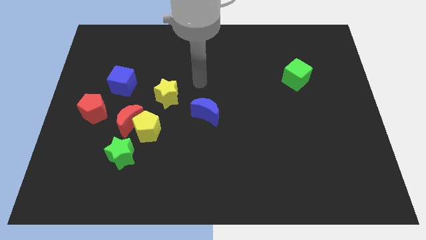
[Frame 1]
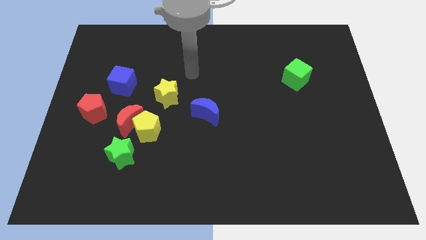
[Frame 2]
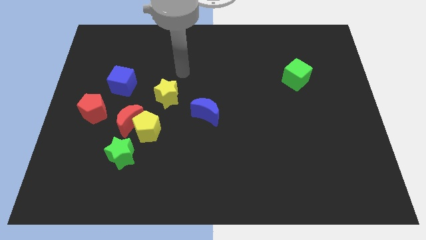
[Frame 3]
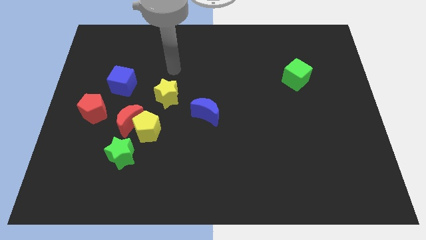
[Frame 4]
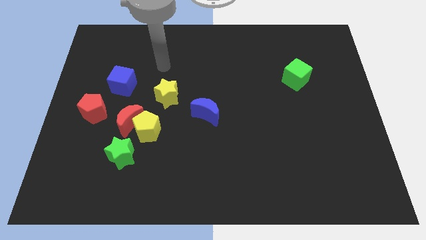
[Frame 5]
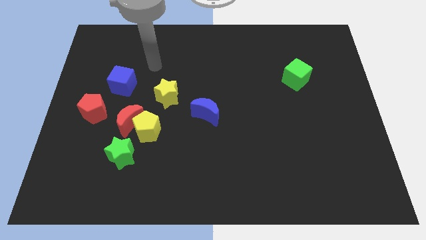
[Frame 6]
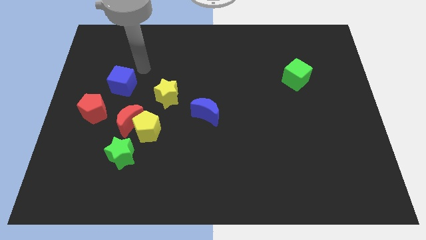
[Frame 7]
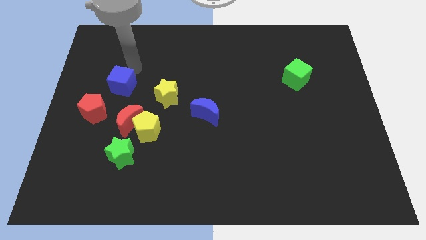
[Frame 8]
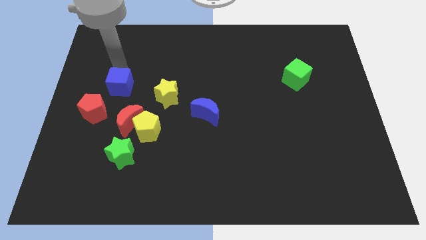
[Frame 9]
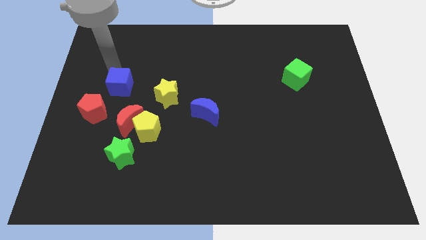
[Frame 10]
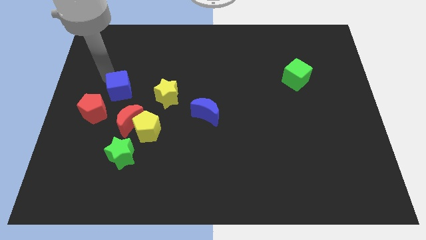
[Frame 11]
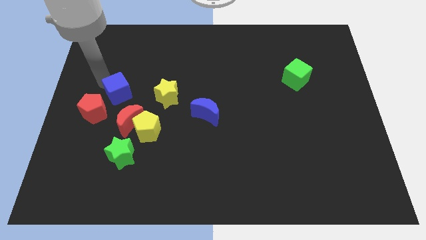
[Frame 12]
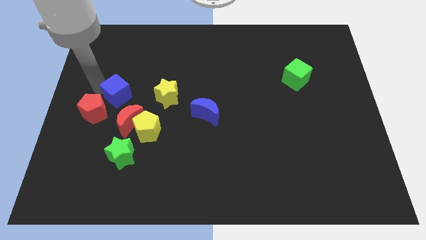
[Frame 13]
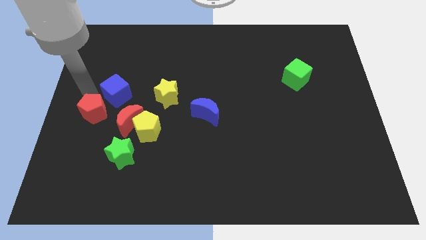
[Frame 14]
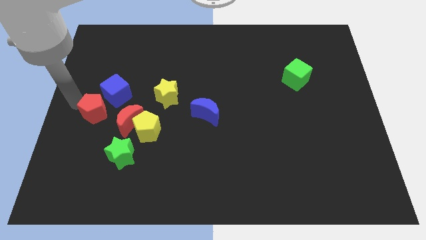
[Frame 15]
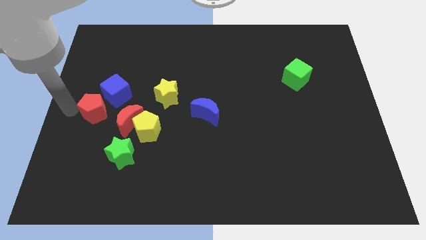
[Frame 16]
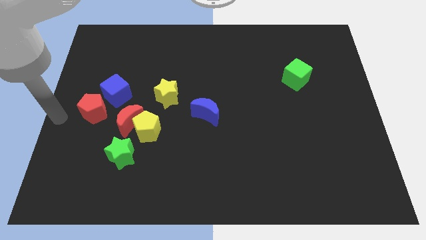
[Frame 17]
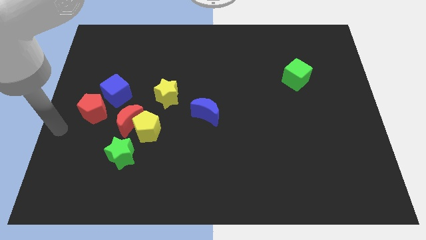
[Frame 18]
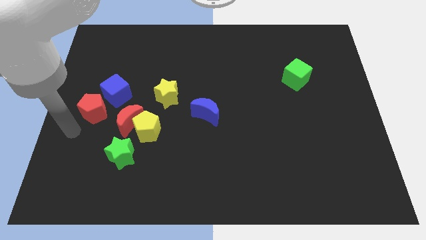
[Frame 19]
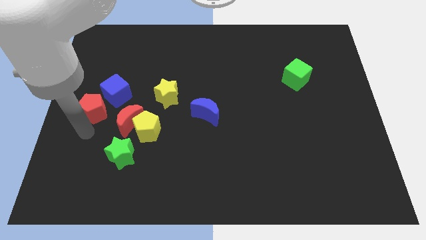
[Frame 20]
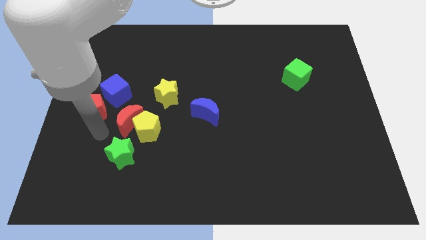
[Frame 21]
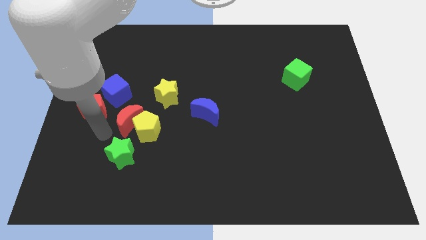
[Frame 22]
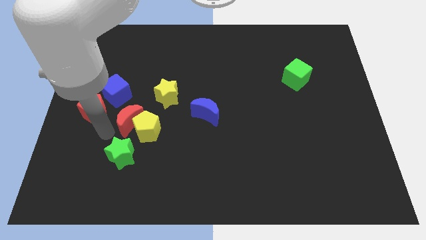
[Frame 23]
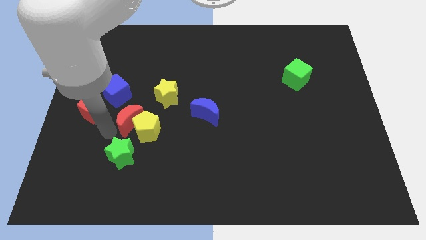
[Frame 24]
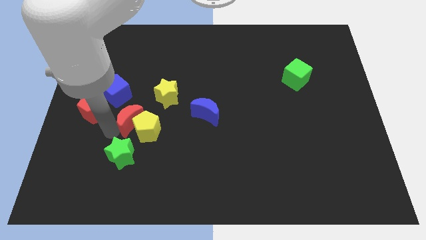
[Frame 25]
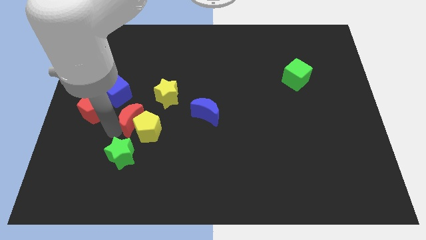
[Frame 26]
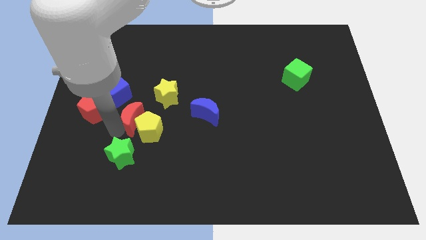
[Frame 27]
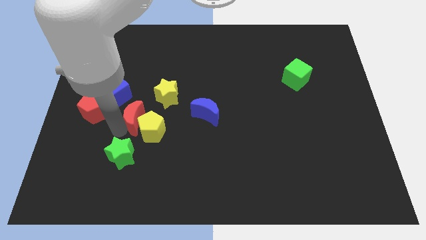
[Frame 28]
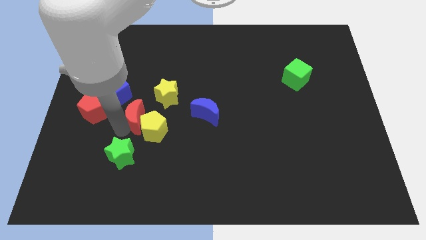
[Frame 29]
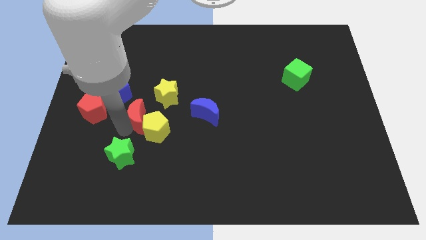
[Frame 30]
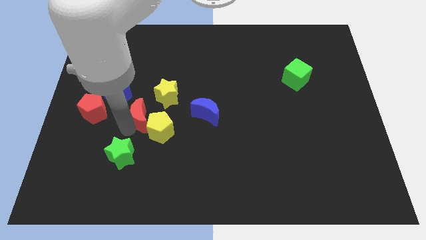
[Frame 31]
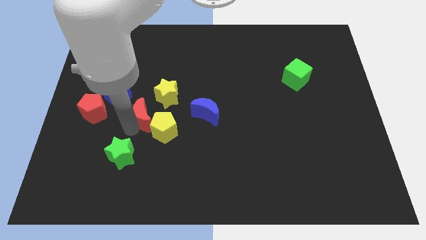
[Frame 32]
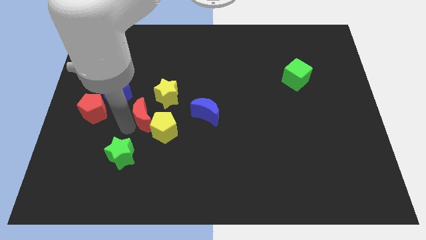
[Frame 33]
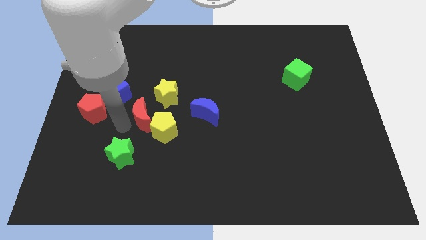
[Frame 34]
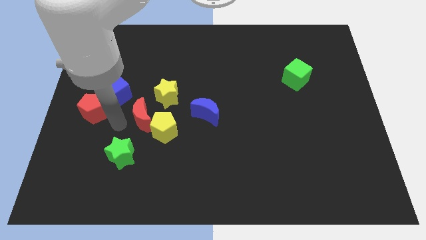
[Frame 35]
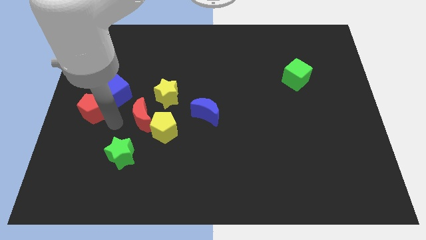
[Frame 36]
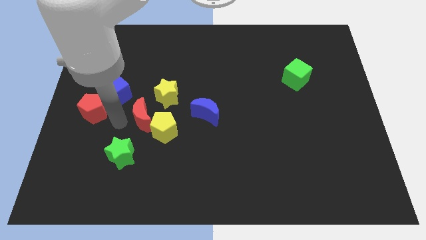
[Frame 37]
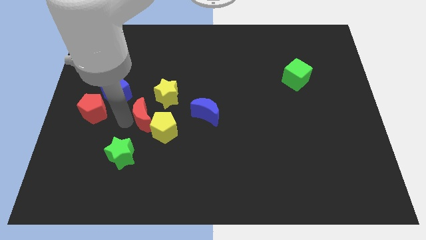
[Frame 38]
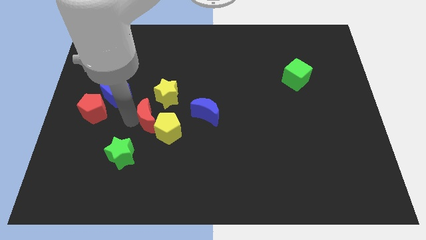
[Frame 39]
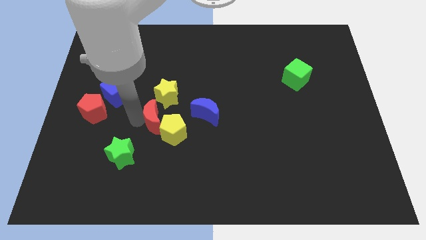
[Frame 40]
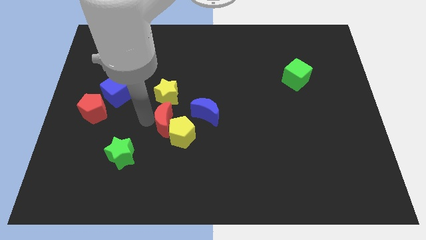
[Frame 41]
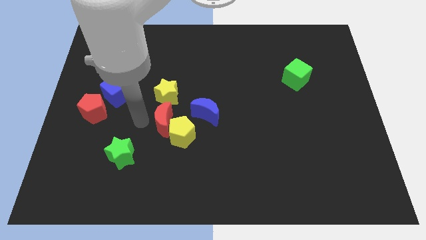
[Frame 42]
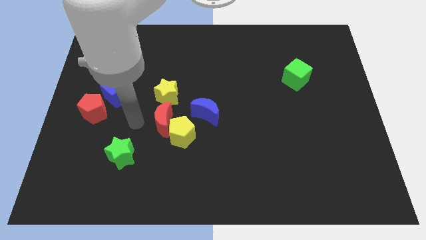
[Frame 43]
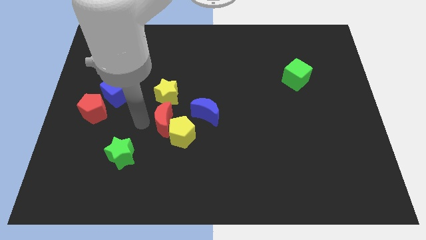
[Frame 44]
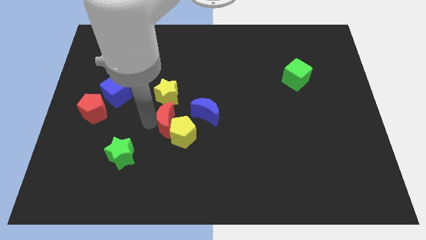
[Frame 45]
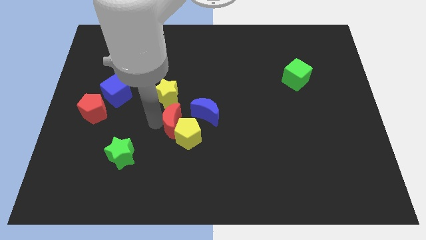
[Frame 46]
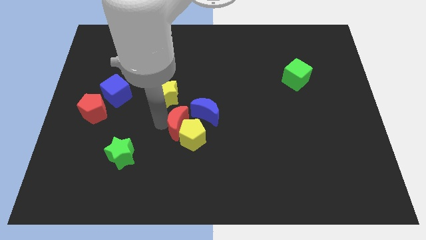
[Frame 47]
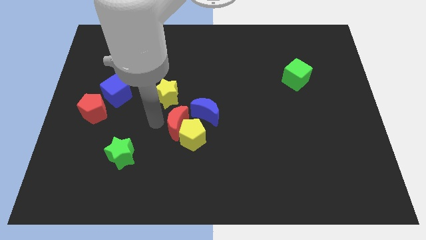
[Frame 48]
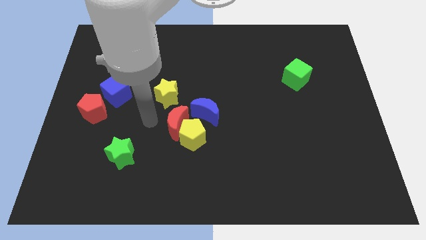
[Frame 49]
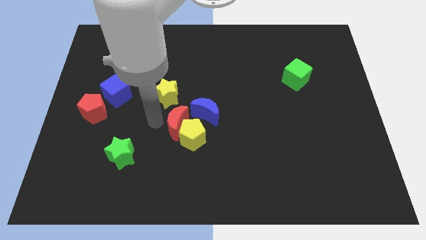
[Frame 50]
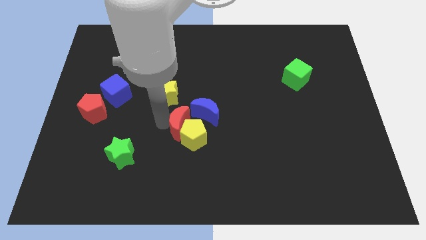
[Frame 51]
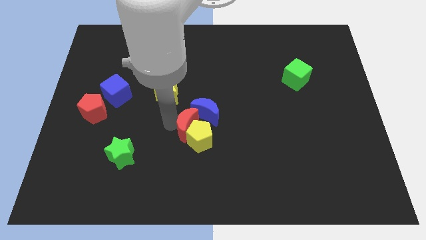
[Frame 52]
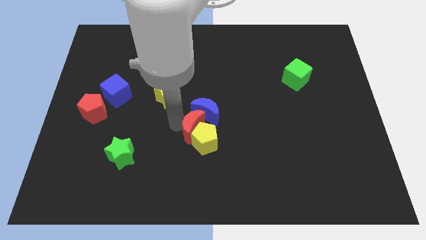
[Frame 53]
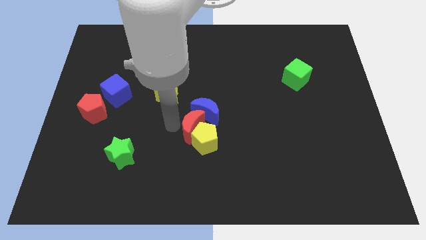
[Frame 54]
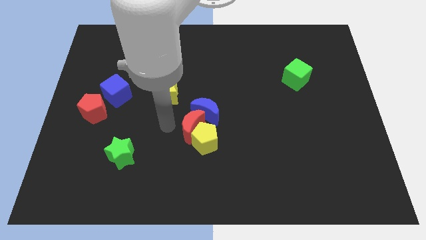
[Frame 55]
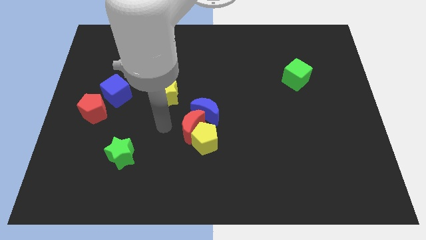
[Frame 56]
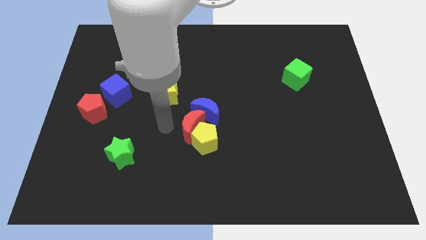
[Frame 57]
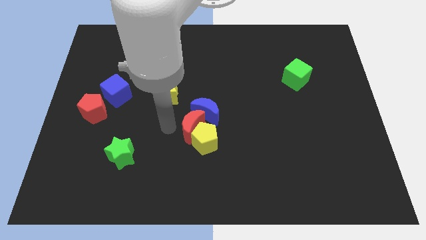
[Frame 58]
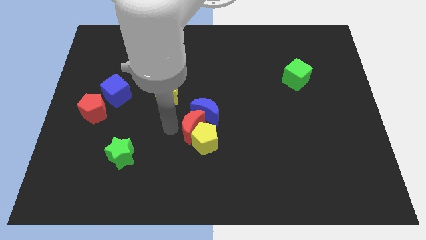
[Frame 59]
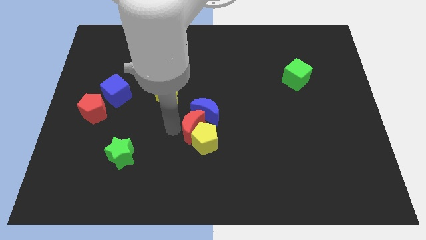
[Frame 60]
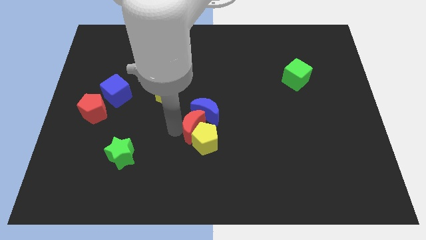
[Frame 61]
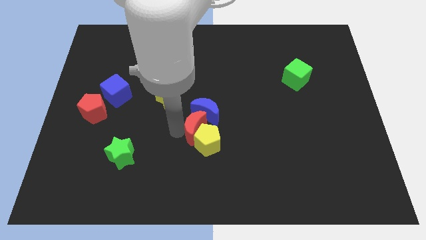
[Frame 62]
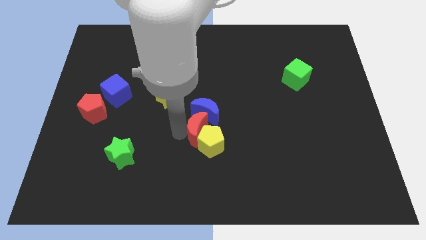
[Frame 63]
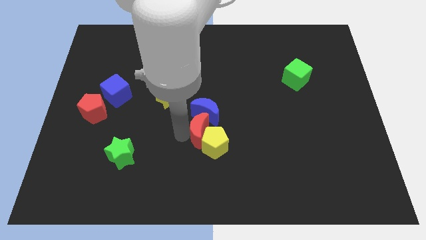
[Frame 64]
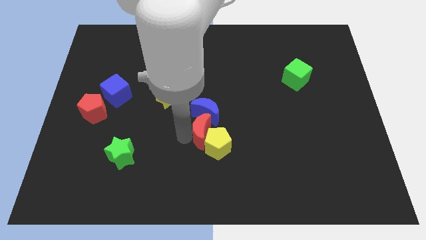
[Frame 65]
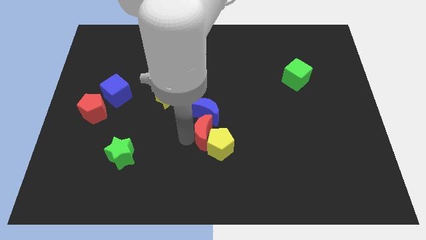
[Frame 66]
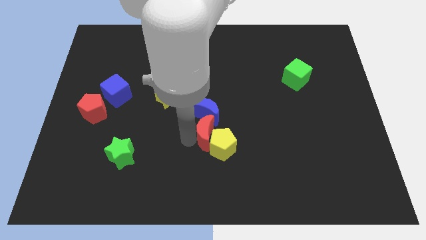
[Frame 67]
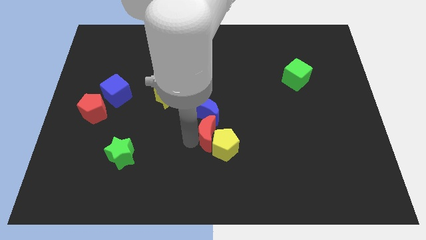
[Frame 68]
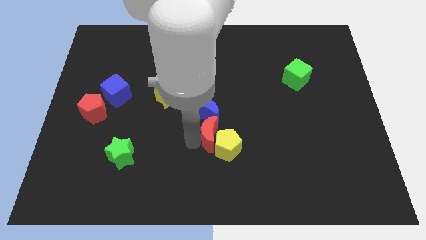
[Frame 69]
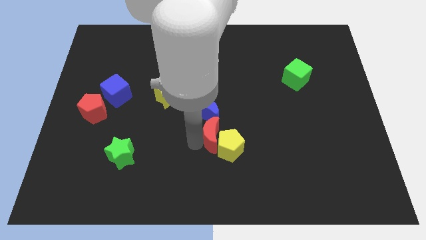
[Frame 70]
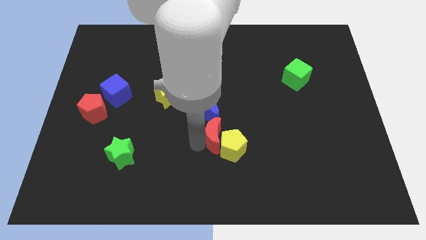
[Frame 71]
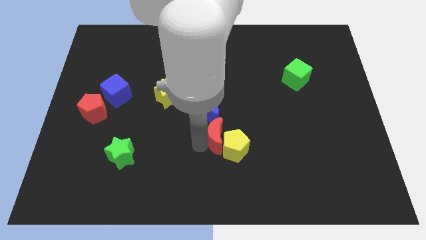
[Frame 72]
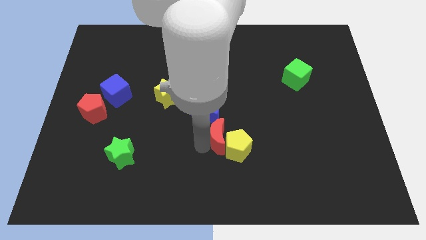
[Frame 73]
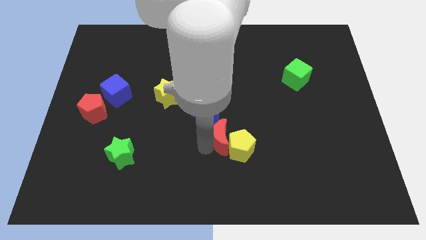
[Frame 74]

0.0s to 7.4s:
slide the red moon right

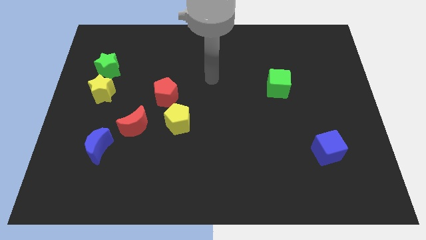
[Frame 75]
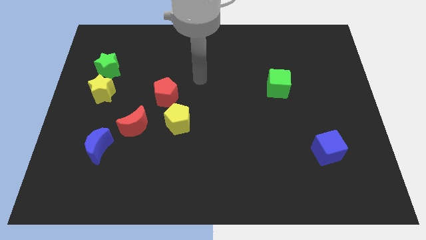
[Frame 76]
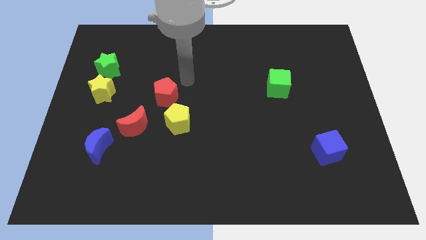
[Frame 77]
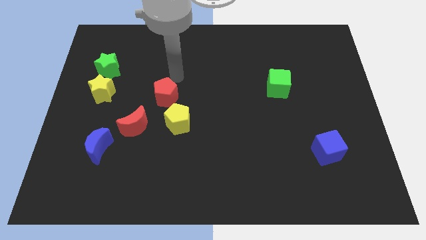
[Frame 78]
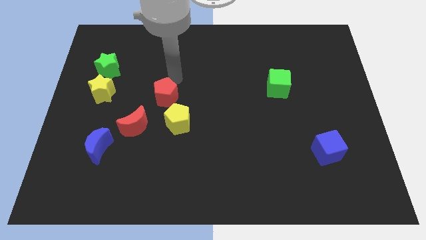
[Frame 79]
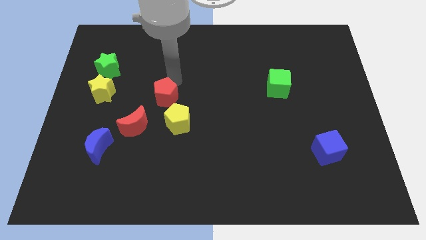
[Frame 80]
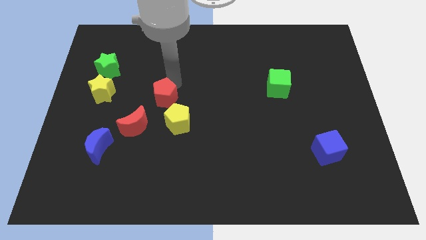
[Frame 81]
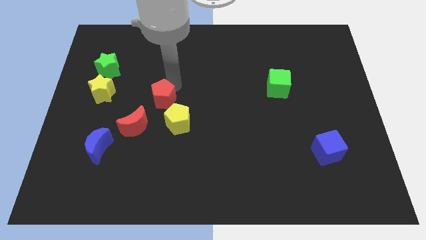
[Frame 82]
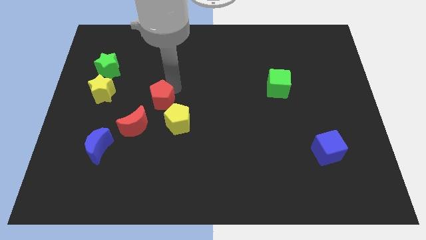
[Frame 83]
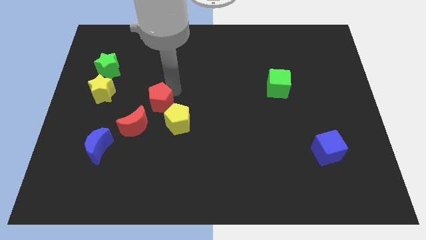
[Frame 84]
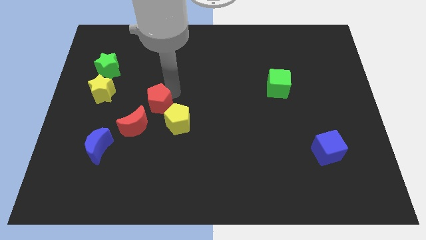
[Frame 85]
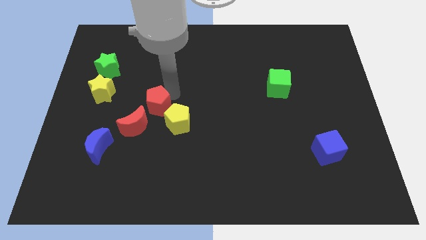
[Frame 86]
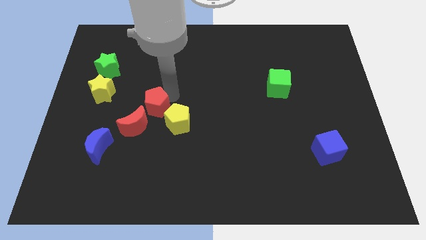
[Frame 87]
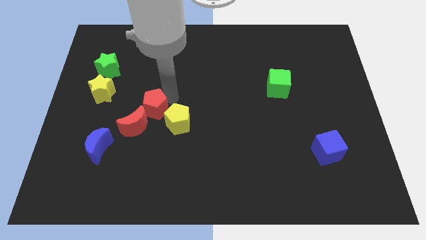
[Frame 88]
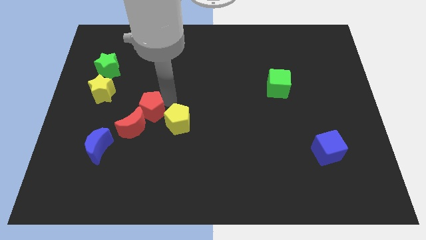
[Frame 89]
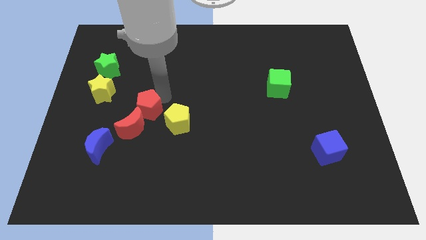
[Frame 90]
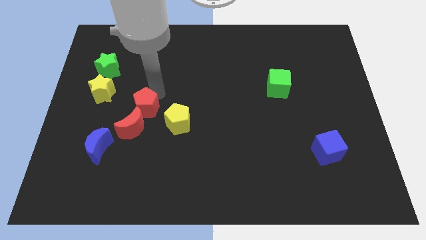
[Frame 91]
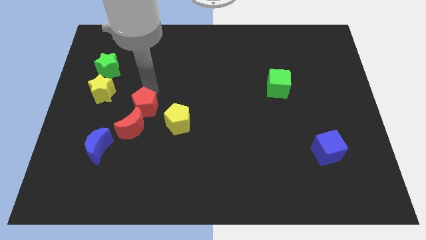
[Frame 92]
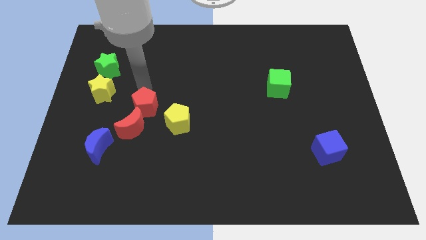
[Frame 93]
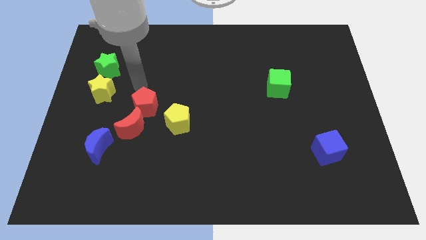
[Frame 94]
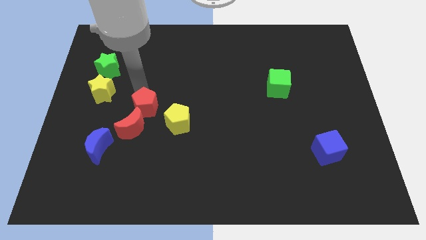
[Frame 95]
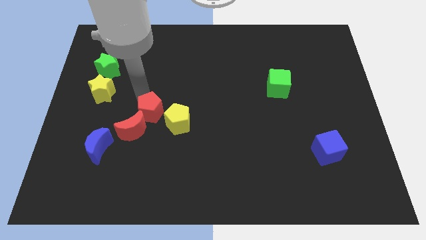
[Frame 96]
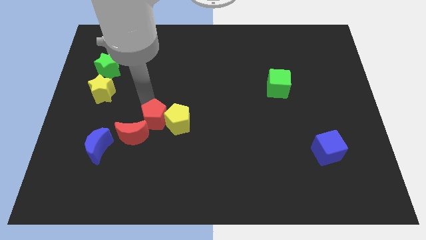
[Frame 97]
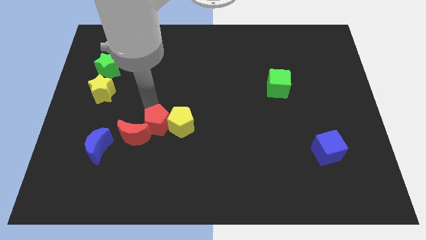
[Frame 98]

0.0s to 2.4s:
push the red pentagon down a little
